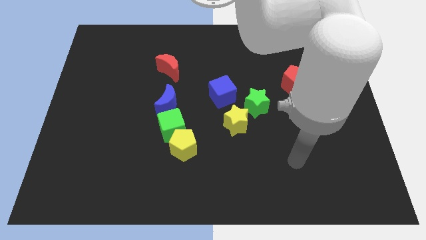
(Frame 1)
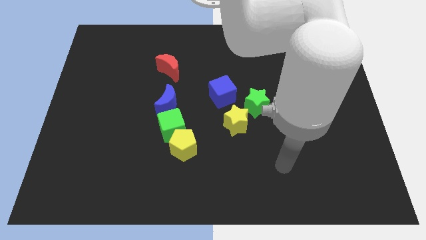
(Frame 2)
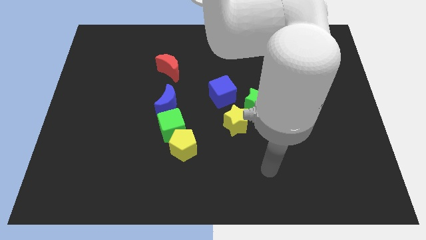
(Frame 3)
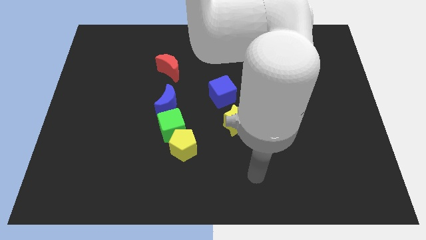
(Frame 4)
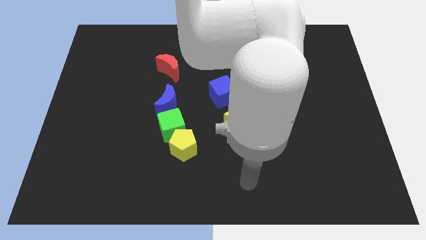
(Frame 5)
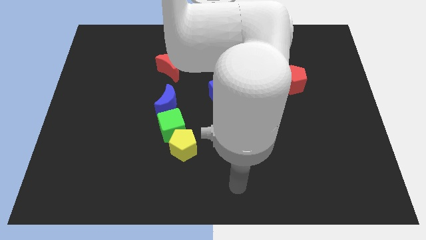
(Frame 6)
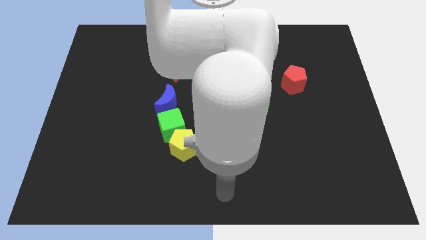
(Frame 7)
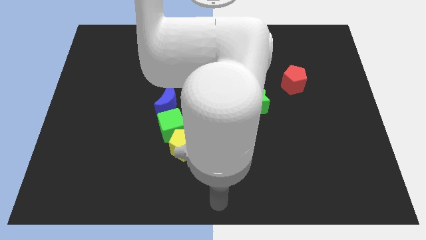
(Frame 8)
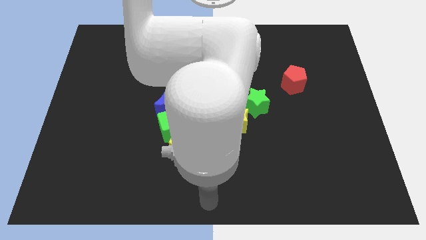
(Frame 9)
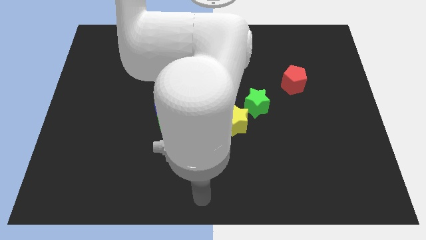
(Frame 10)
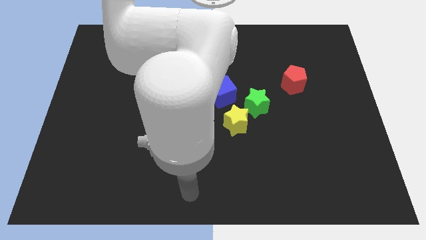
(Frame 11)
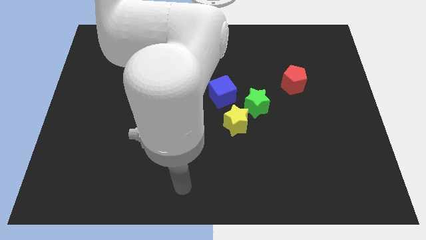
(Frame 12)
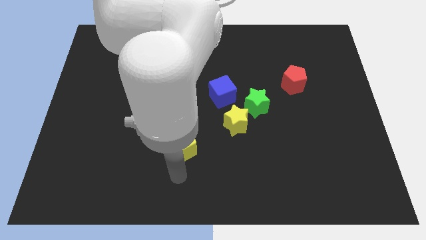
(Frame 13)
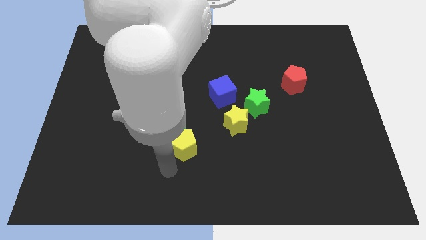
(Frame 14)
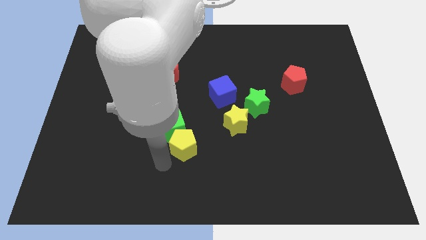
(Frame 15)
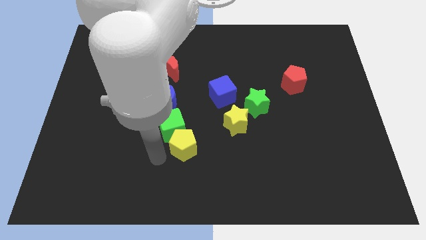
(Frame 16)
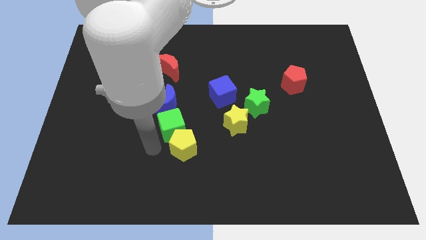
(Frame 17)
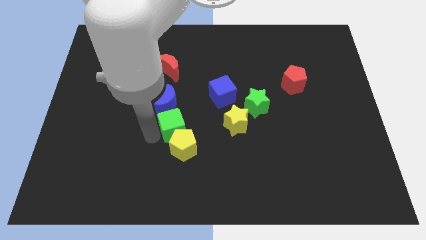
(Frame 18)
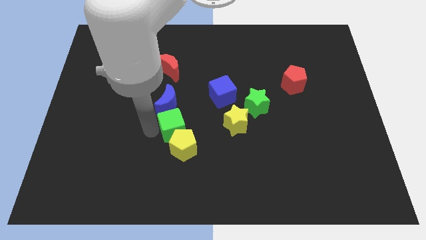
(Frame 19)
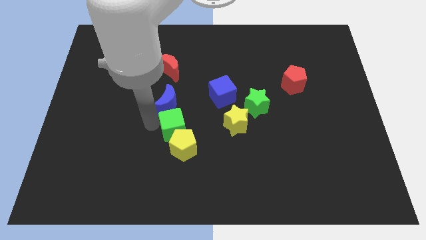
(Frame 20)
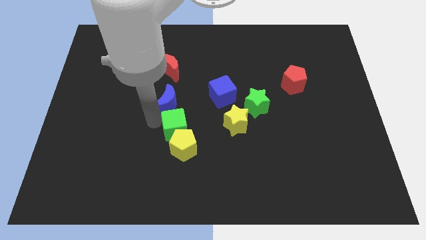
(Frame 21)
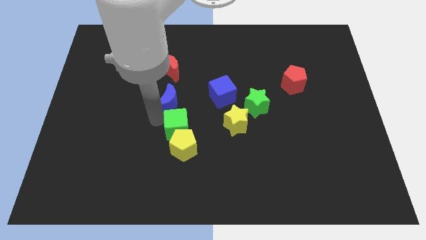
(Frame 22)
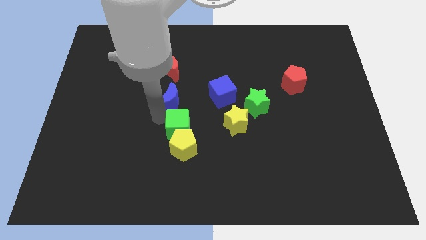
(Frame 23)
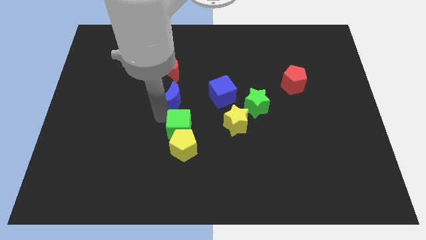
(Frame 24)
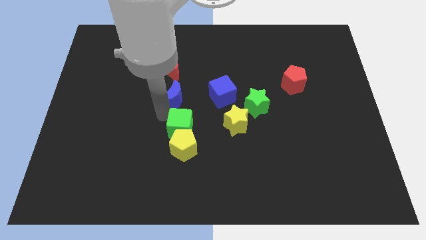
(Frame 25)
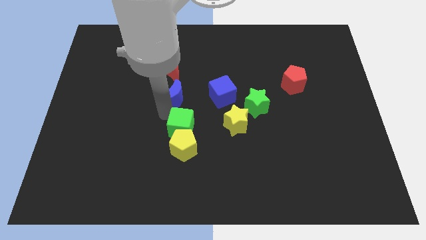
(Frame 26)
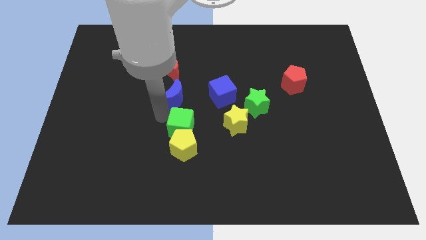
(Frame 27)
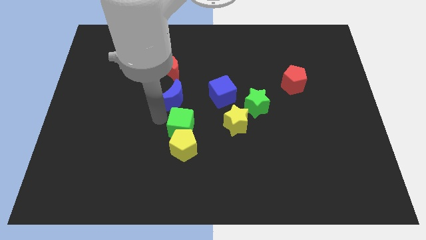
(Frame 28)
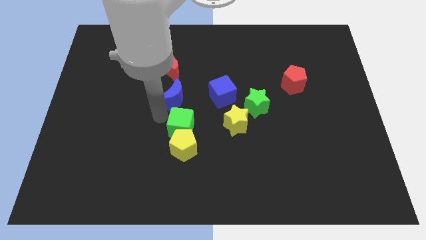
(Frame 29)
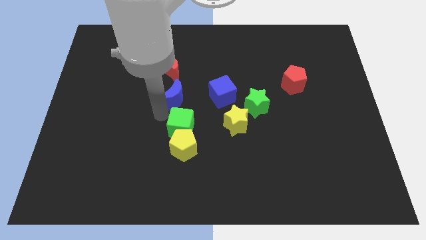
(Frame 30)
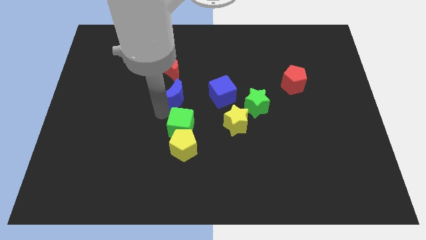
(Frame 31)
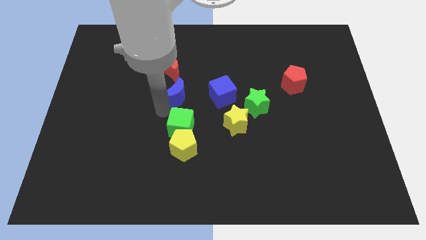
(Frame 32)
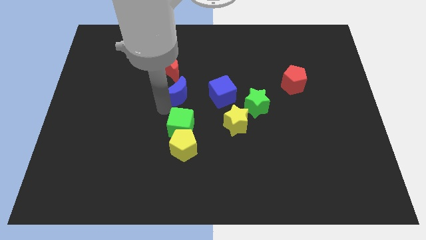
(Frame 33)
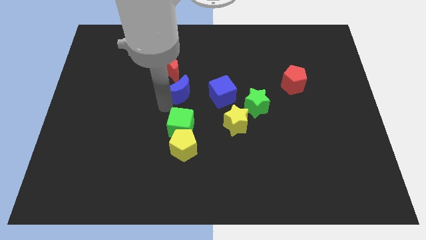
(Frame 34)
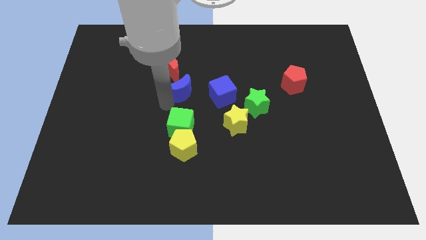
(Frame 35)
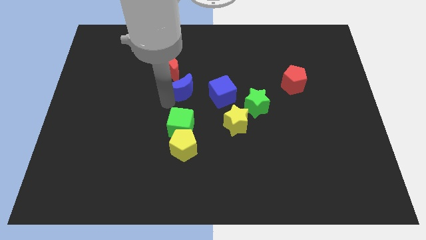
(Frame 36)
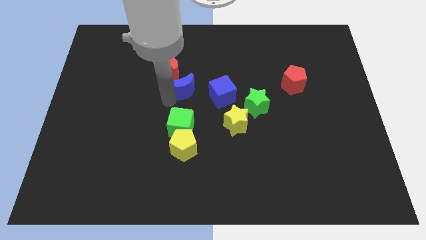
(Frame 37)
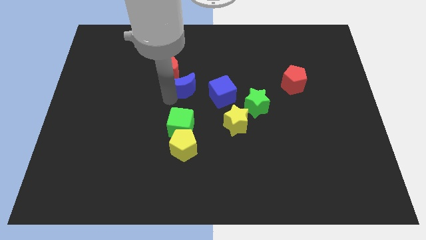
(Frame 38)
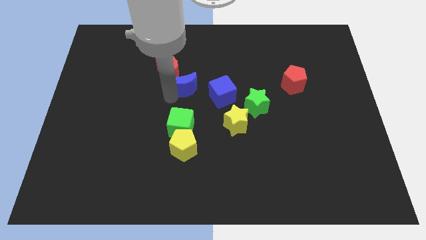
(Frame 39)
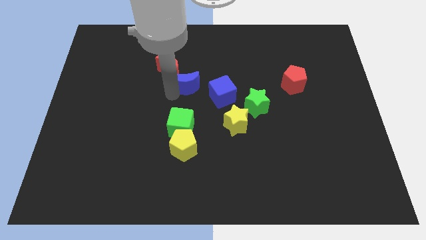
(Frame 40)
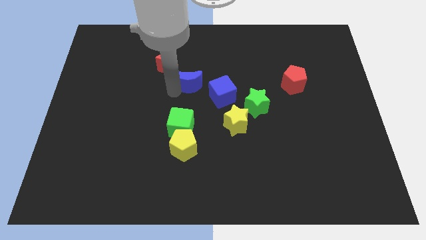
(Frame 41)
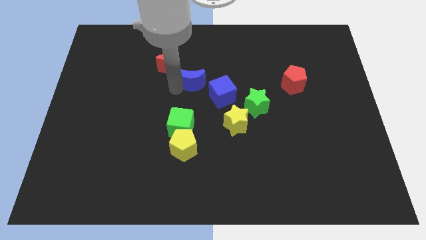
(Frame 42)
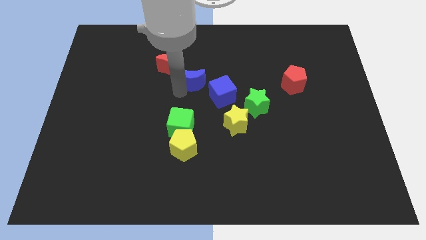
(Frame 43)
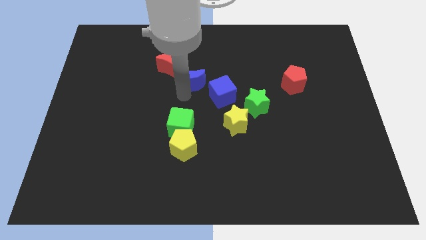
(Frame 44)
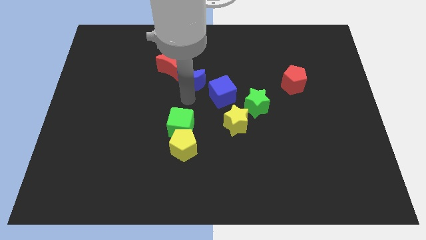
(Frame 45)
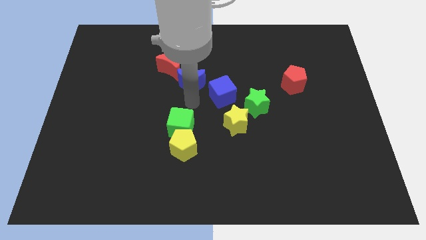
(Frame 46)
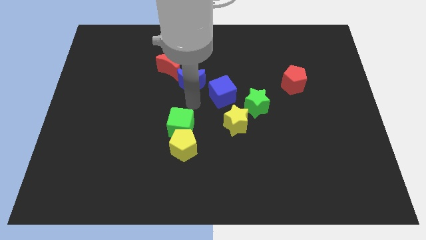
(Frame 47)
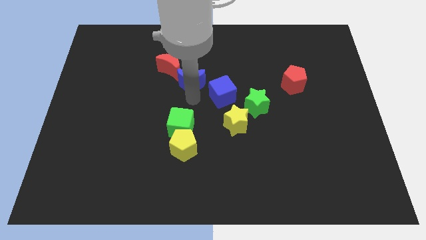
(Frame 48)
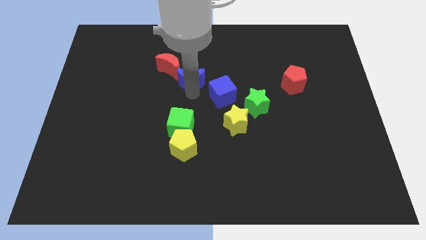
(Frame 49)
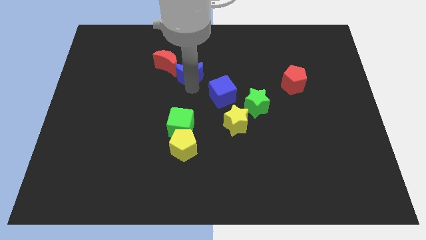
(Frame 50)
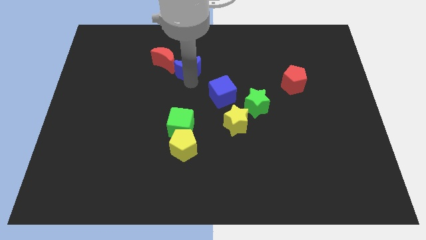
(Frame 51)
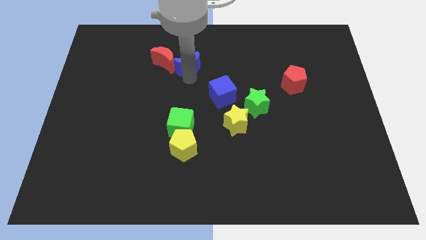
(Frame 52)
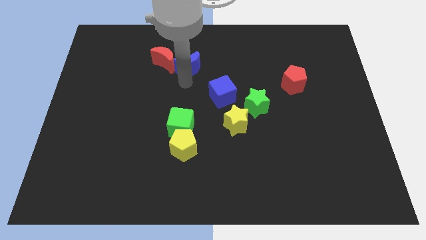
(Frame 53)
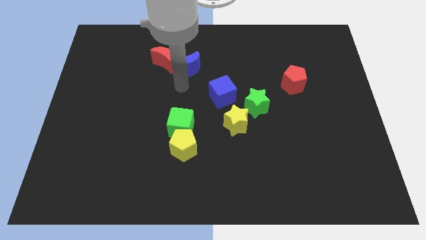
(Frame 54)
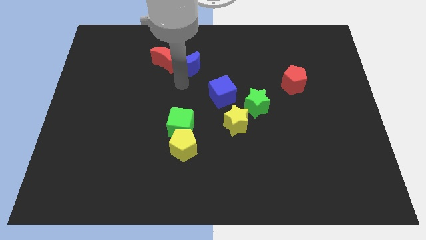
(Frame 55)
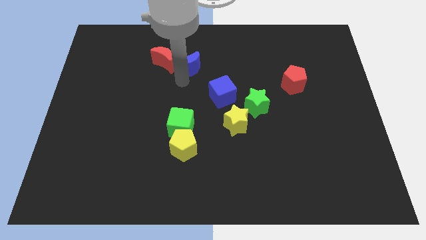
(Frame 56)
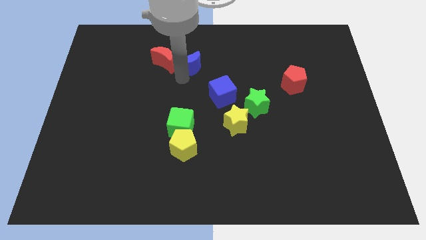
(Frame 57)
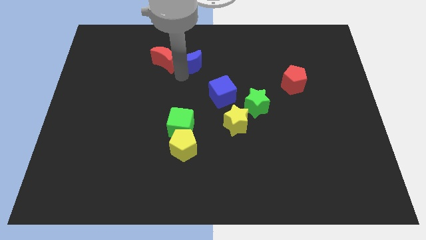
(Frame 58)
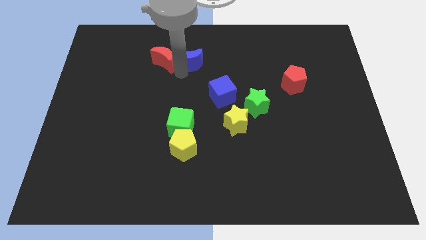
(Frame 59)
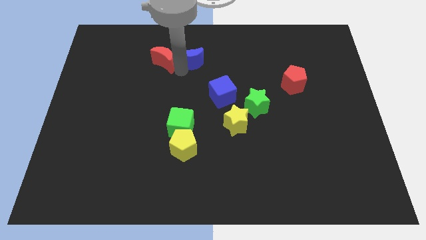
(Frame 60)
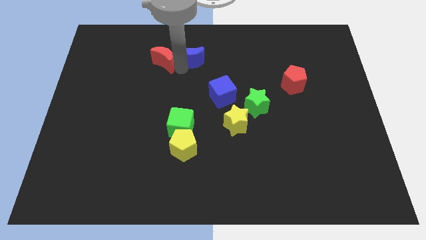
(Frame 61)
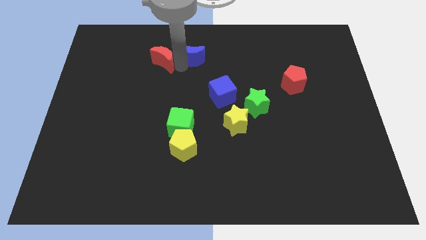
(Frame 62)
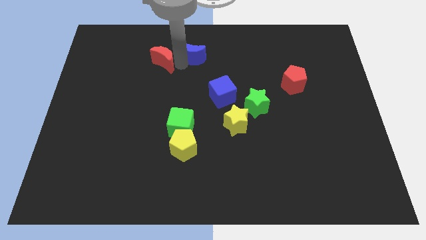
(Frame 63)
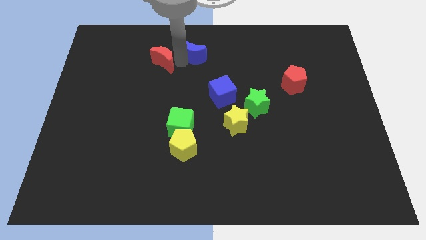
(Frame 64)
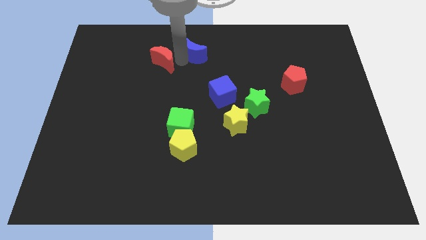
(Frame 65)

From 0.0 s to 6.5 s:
push the blue moon to the top
